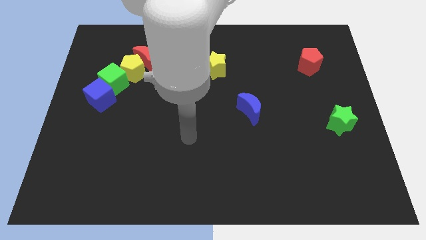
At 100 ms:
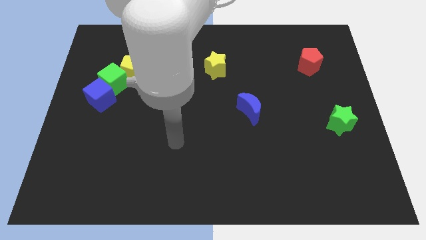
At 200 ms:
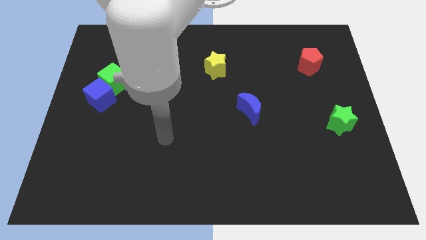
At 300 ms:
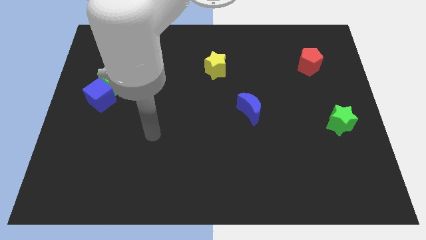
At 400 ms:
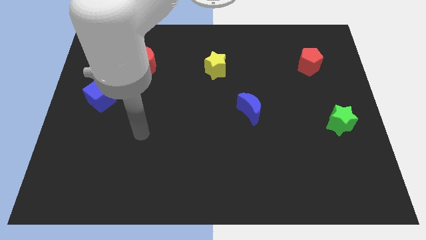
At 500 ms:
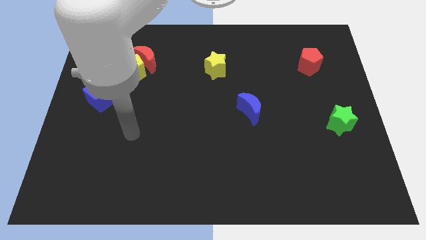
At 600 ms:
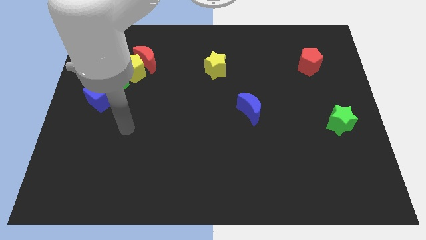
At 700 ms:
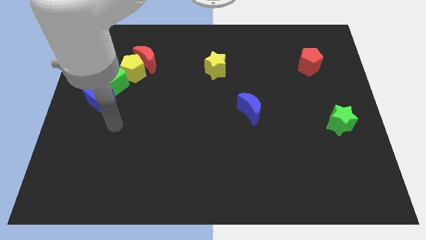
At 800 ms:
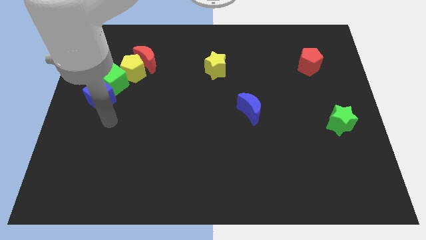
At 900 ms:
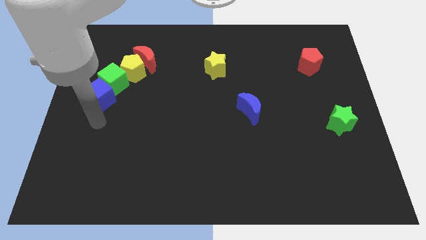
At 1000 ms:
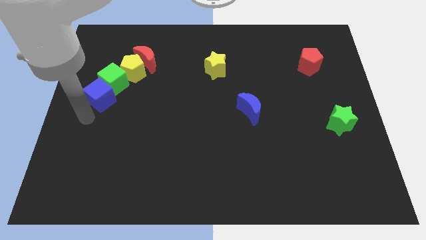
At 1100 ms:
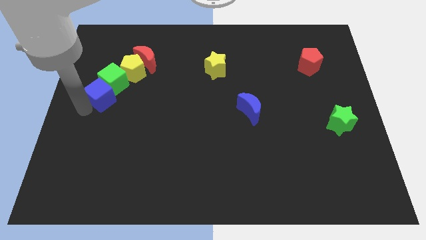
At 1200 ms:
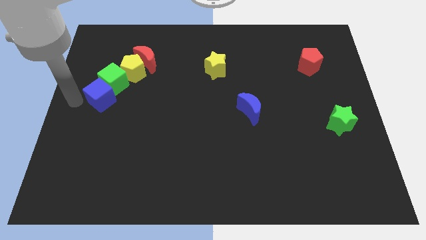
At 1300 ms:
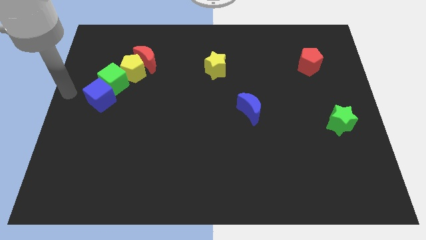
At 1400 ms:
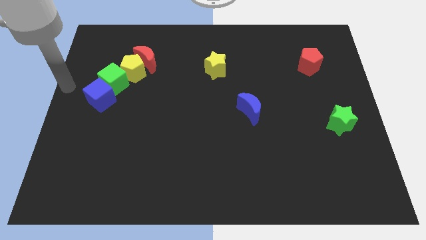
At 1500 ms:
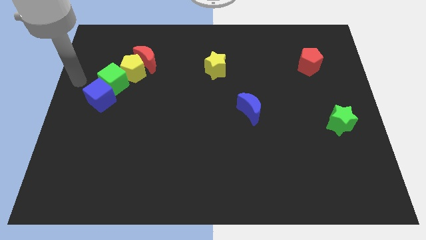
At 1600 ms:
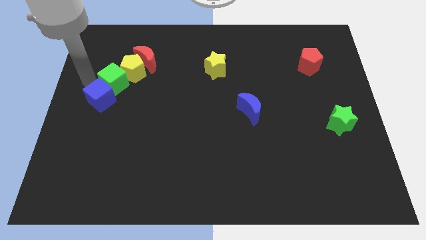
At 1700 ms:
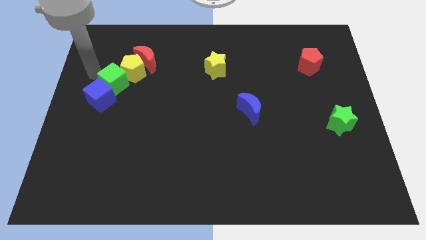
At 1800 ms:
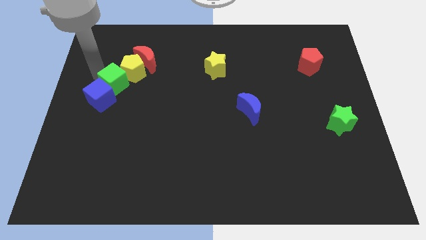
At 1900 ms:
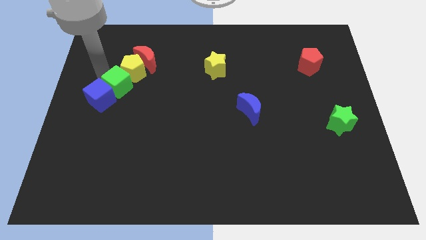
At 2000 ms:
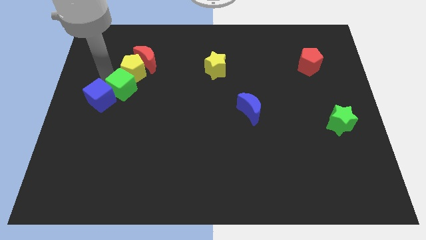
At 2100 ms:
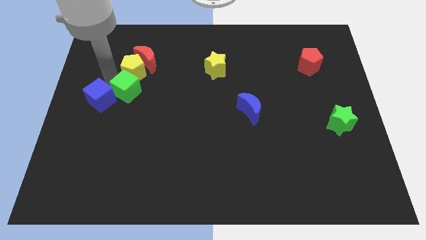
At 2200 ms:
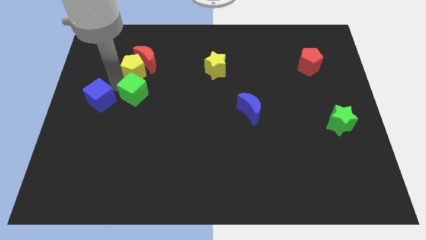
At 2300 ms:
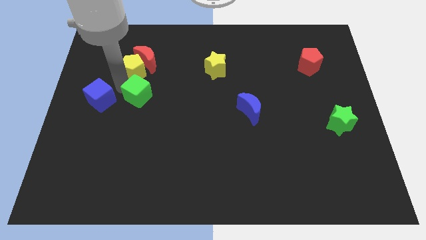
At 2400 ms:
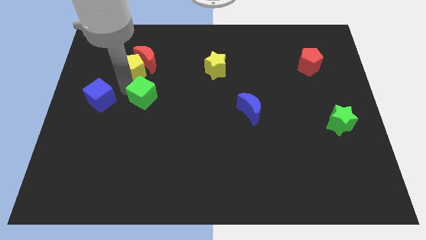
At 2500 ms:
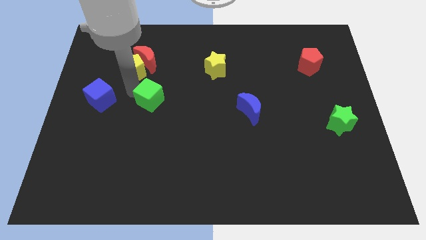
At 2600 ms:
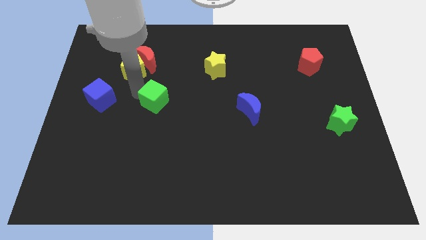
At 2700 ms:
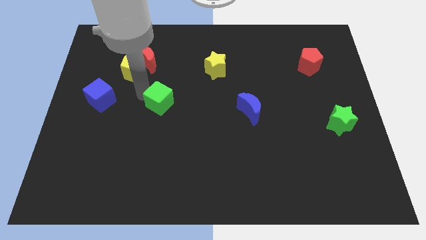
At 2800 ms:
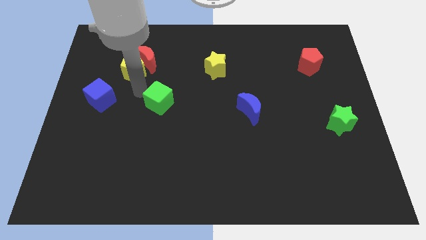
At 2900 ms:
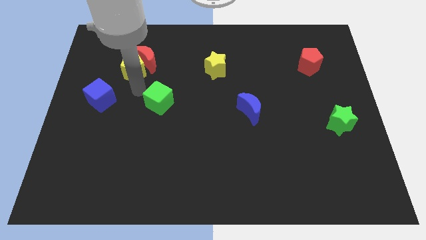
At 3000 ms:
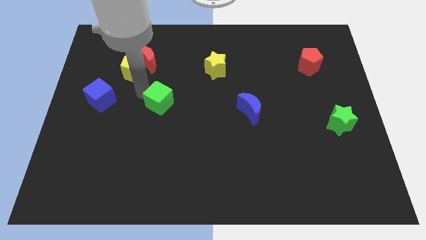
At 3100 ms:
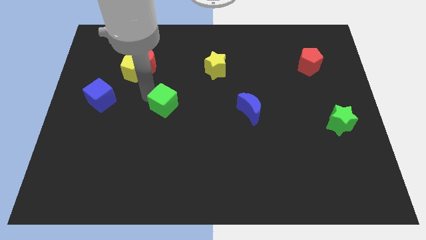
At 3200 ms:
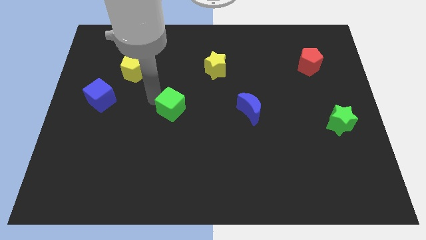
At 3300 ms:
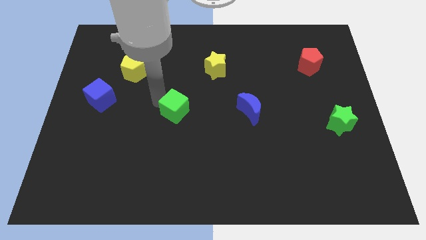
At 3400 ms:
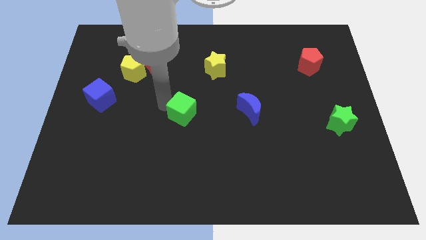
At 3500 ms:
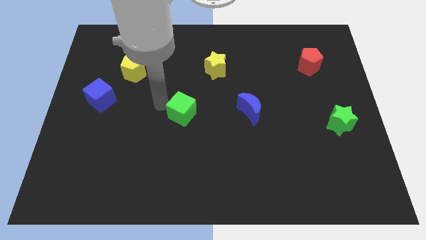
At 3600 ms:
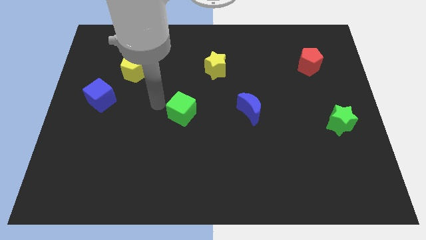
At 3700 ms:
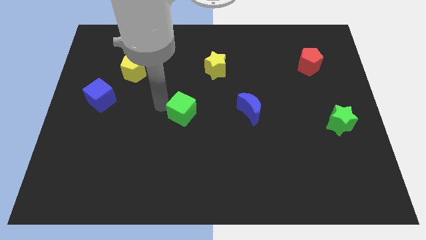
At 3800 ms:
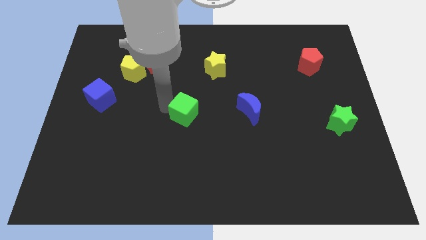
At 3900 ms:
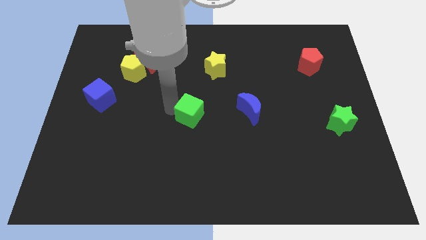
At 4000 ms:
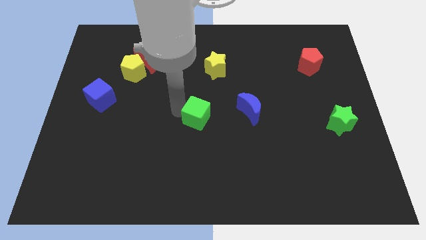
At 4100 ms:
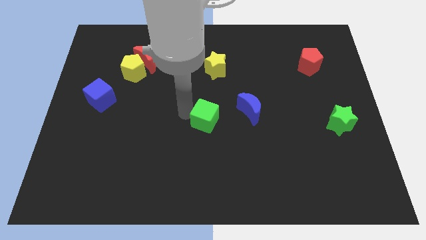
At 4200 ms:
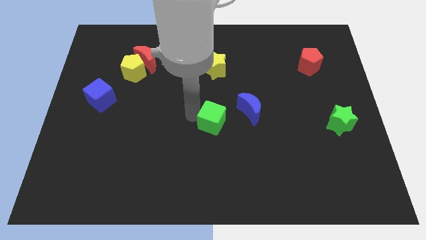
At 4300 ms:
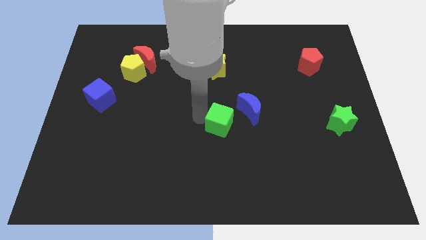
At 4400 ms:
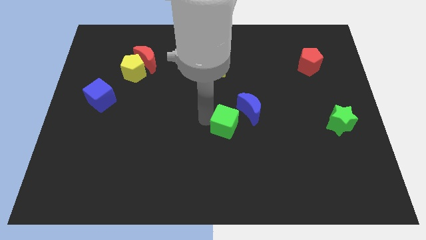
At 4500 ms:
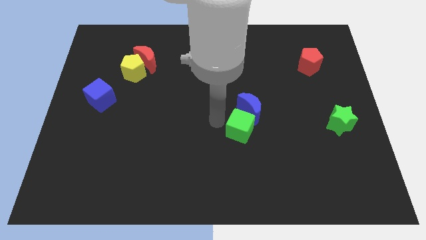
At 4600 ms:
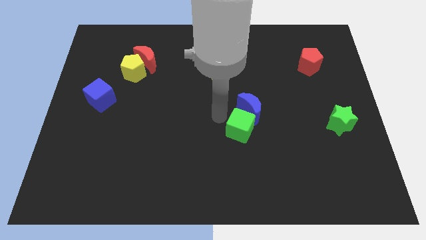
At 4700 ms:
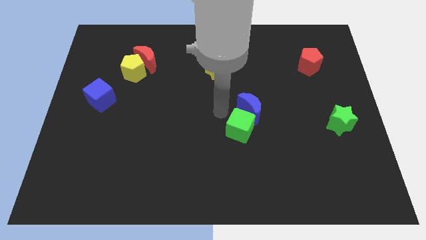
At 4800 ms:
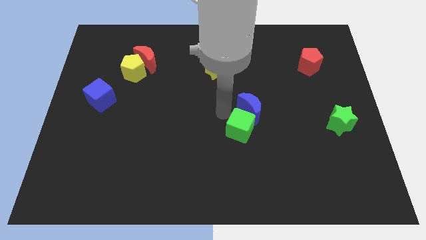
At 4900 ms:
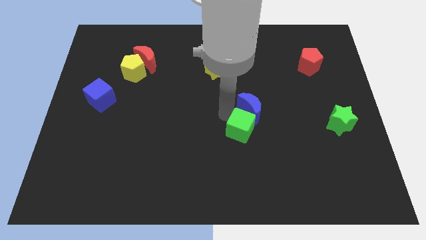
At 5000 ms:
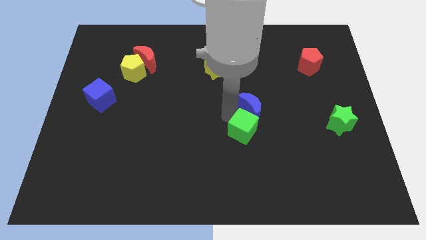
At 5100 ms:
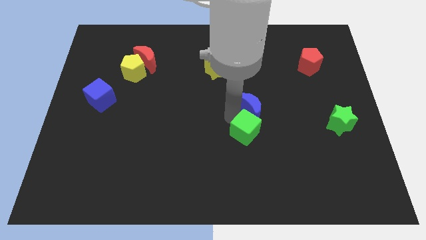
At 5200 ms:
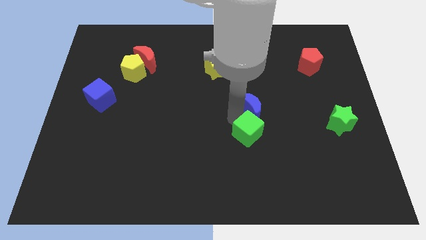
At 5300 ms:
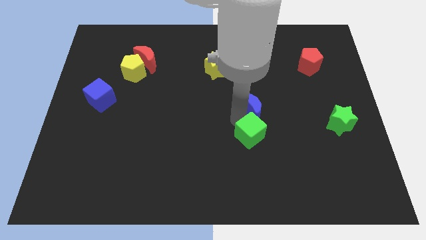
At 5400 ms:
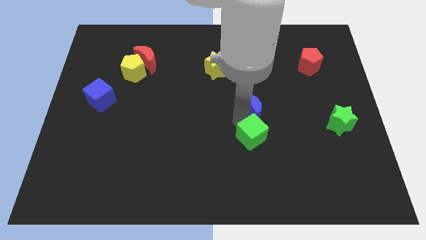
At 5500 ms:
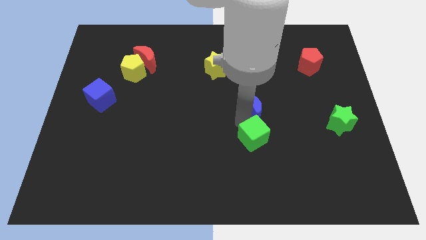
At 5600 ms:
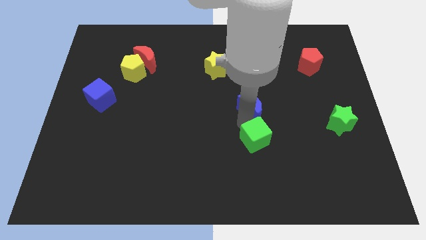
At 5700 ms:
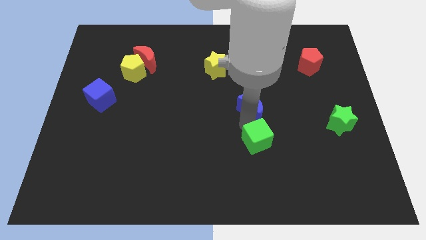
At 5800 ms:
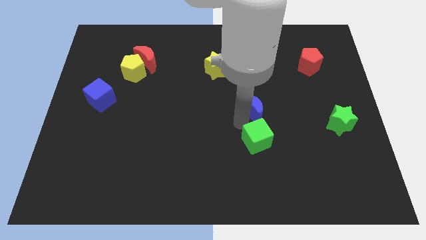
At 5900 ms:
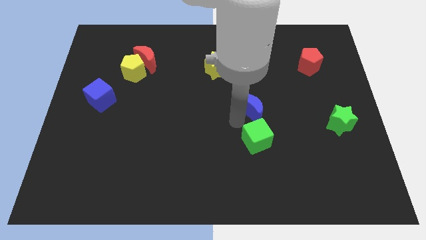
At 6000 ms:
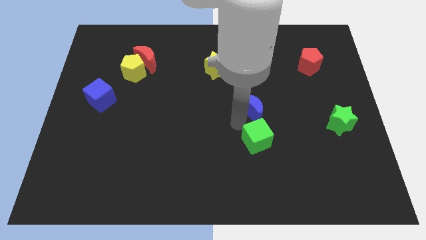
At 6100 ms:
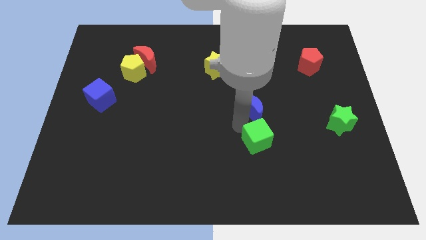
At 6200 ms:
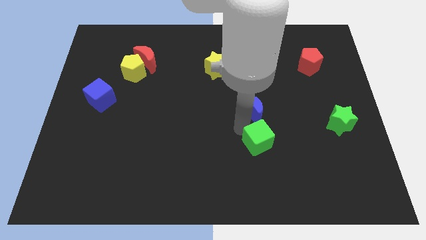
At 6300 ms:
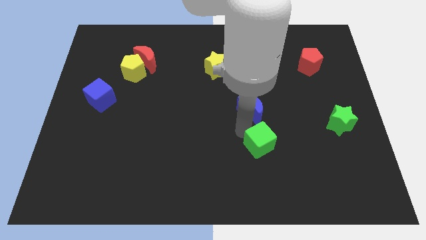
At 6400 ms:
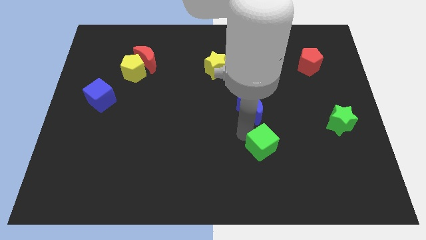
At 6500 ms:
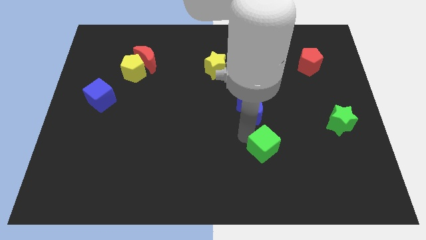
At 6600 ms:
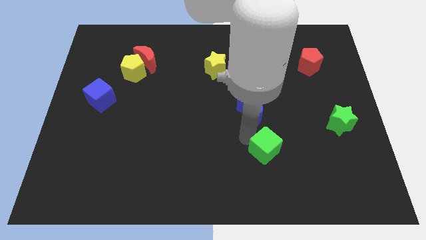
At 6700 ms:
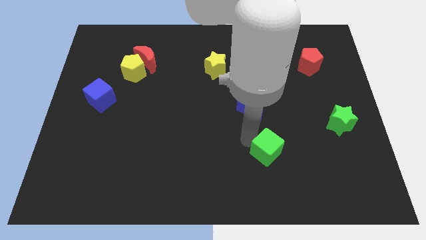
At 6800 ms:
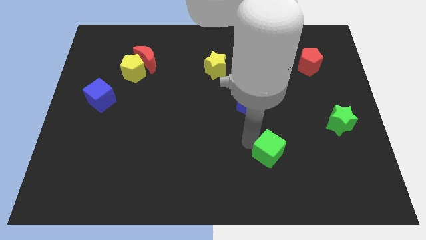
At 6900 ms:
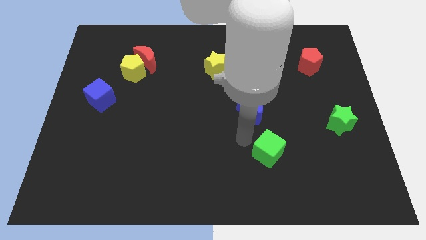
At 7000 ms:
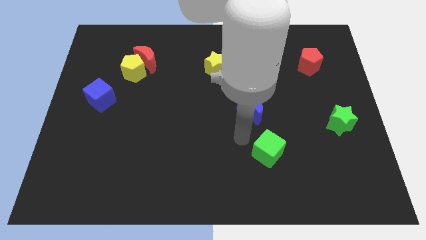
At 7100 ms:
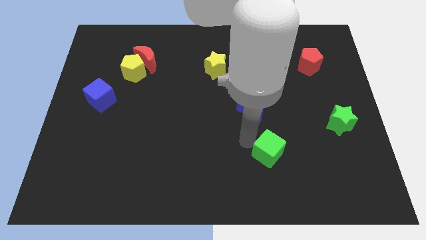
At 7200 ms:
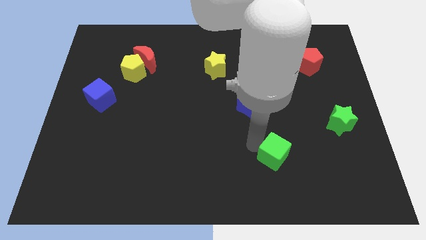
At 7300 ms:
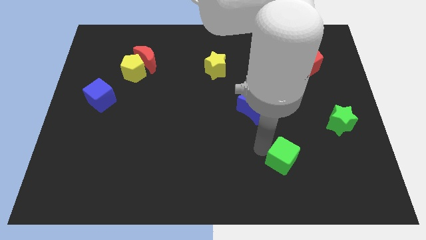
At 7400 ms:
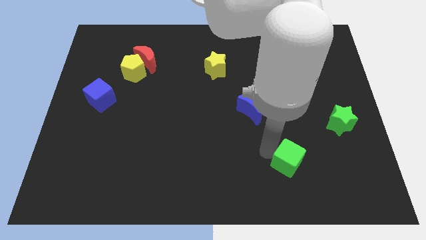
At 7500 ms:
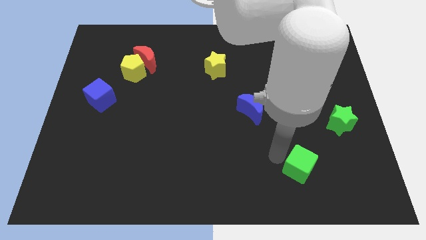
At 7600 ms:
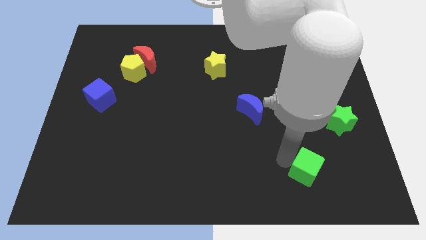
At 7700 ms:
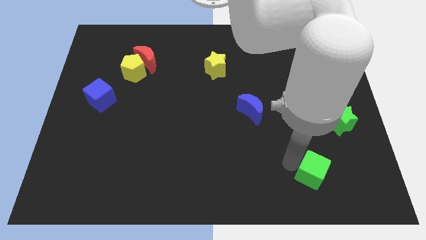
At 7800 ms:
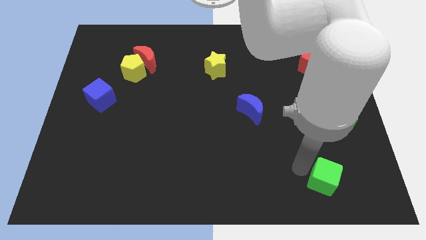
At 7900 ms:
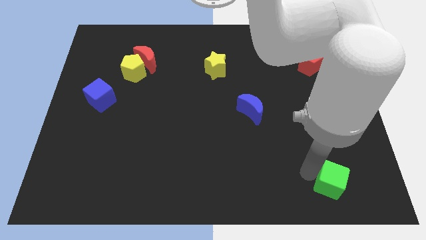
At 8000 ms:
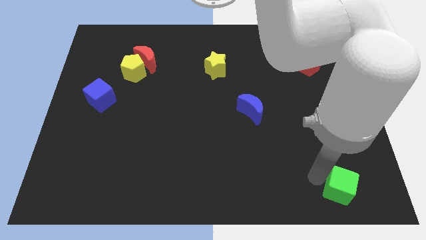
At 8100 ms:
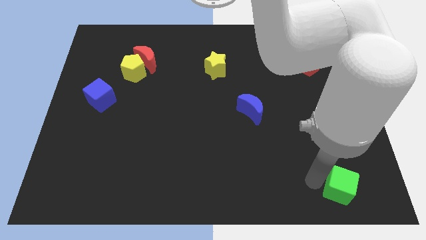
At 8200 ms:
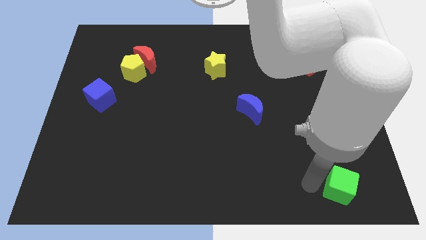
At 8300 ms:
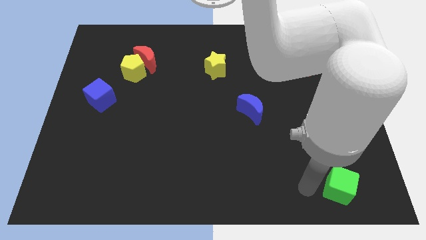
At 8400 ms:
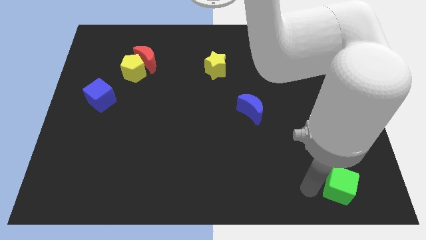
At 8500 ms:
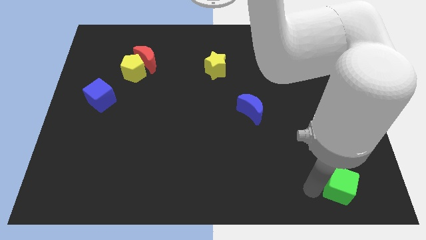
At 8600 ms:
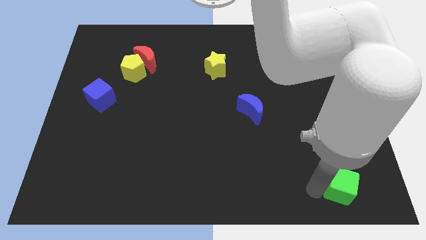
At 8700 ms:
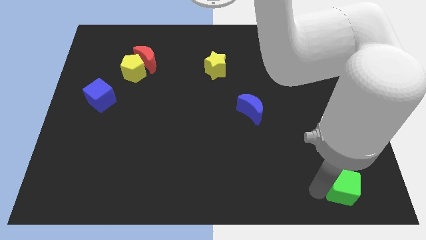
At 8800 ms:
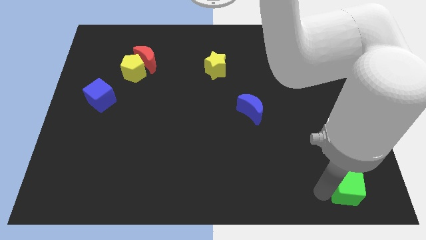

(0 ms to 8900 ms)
move the green cube to the lower right corner
